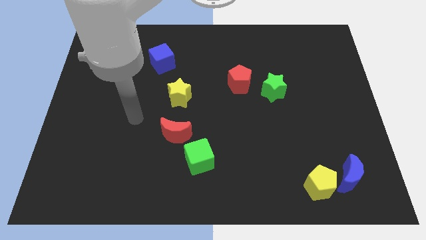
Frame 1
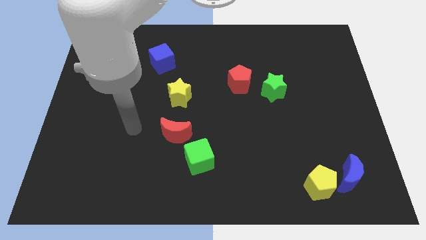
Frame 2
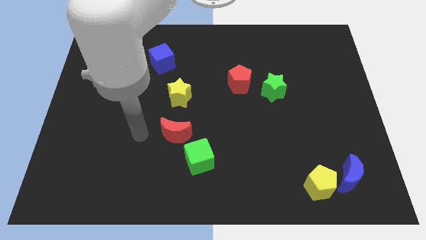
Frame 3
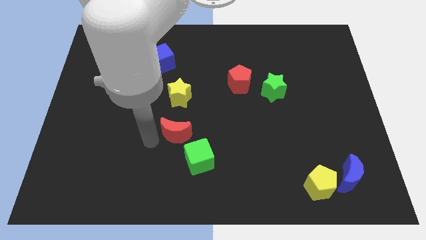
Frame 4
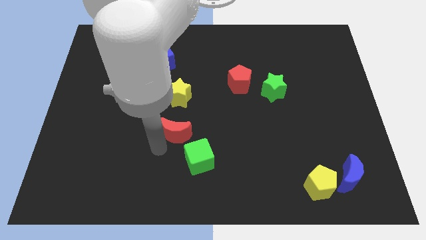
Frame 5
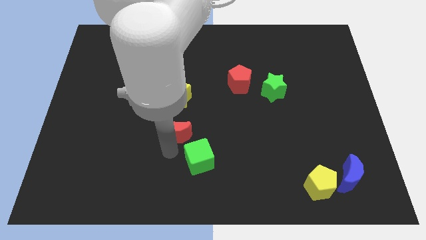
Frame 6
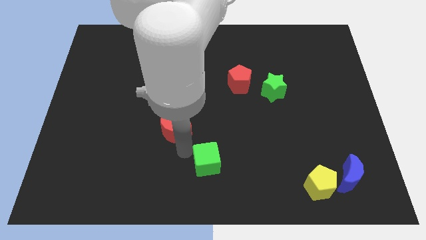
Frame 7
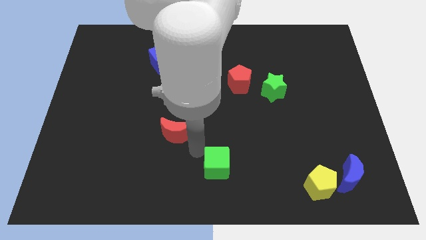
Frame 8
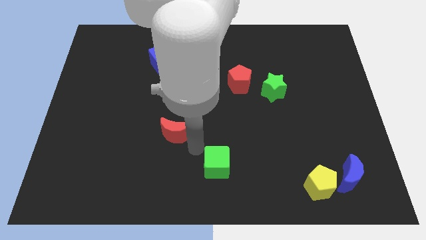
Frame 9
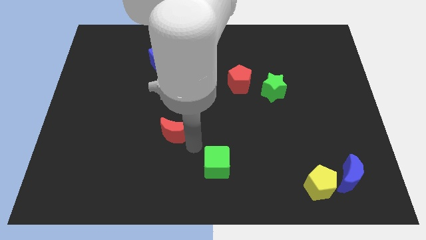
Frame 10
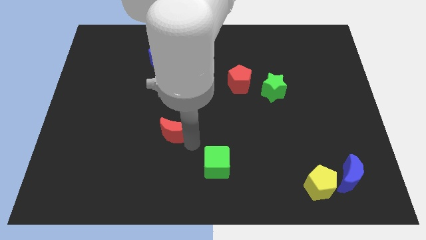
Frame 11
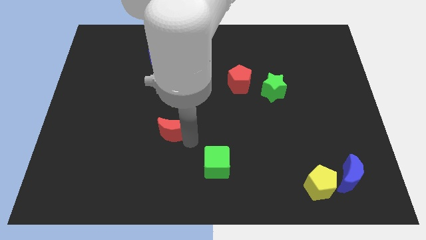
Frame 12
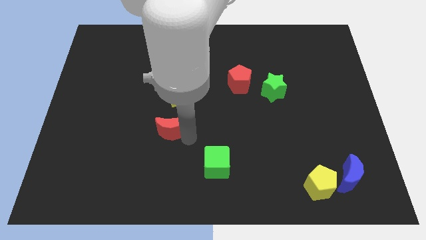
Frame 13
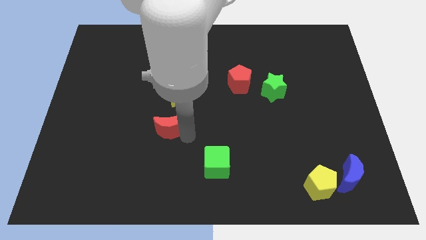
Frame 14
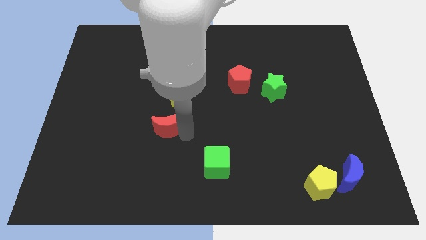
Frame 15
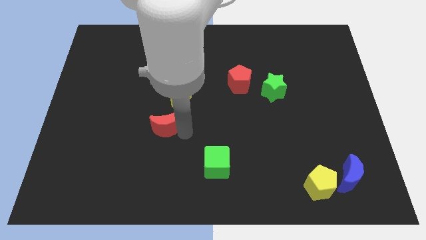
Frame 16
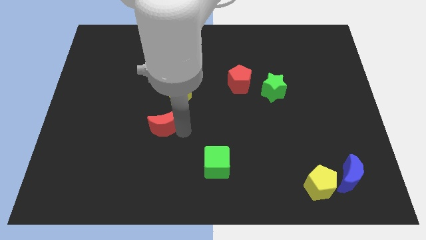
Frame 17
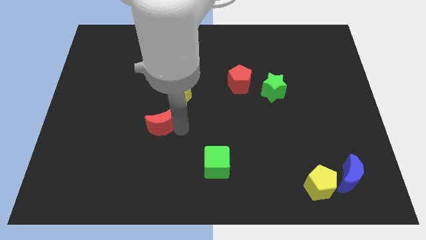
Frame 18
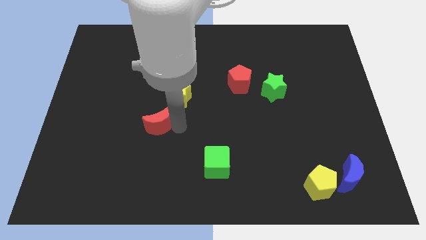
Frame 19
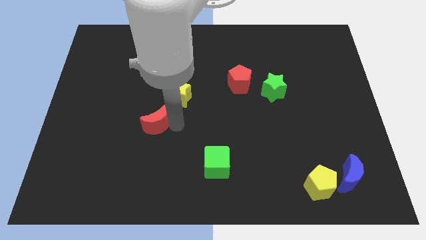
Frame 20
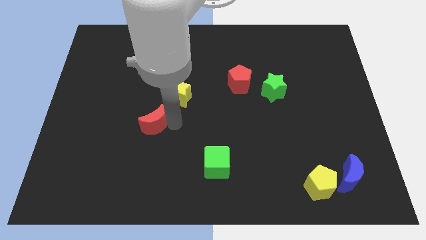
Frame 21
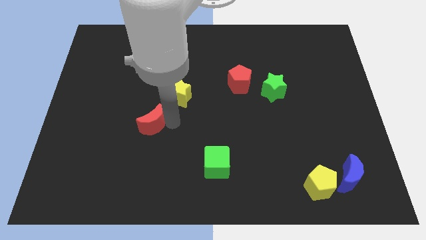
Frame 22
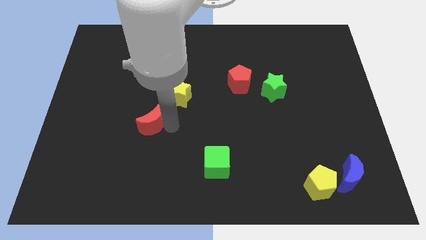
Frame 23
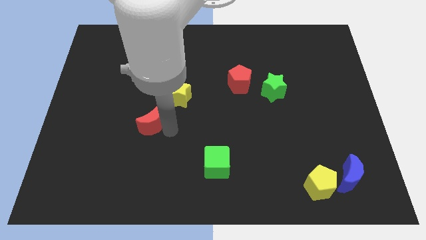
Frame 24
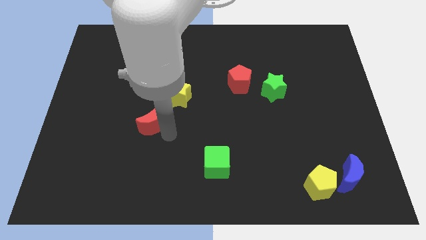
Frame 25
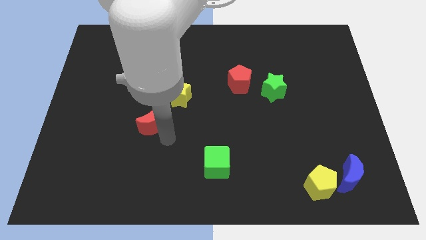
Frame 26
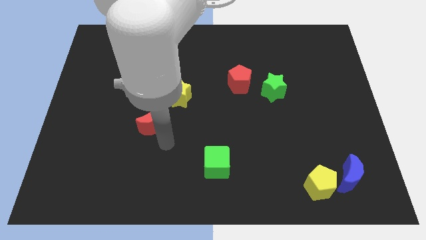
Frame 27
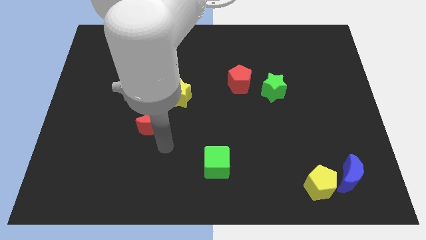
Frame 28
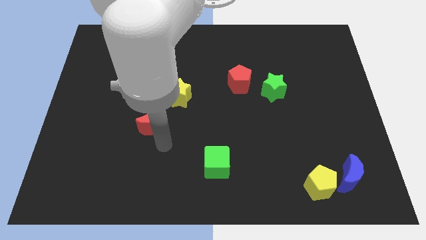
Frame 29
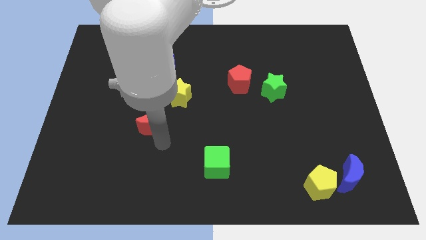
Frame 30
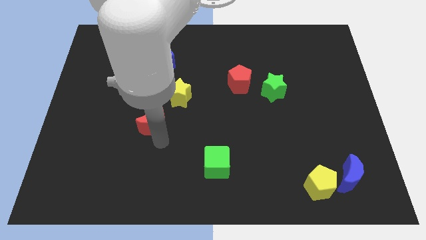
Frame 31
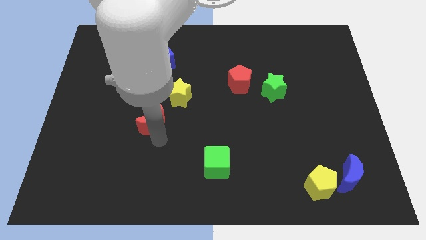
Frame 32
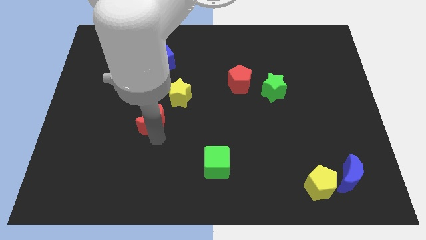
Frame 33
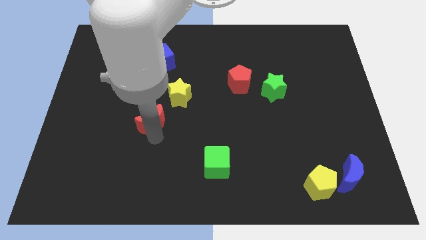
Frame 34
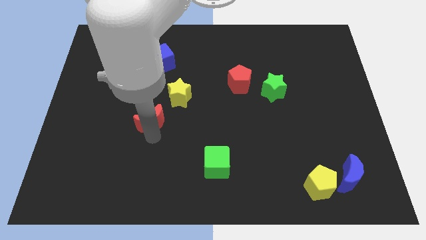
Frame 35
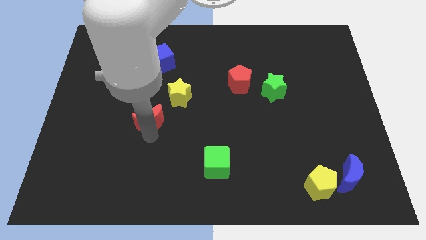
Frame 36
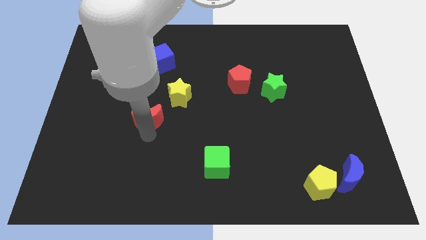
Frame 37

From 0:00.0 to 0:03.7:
move the red moon diagonally up and to the left slightly

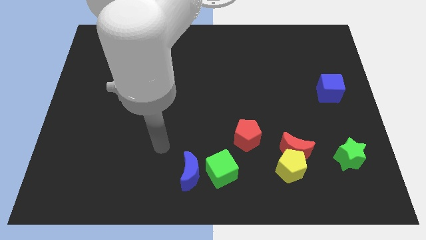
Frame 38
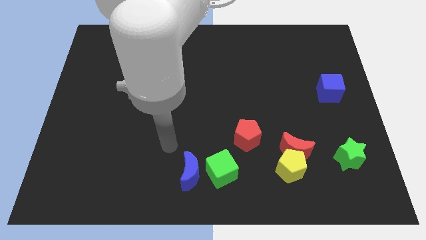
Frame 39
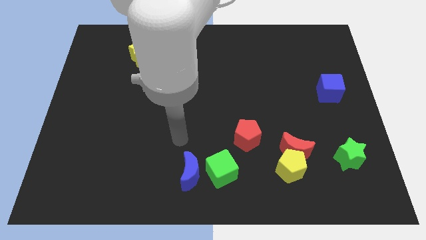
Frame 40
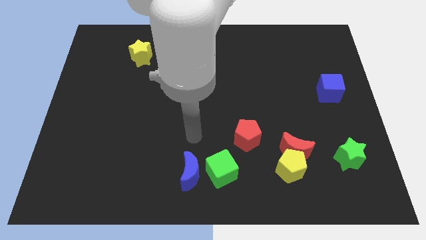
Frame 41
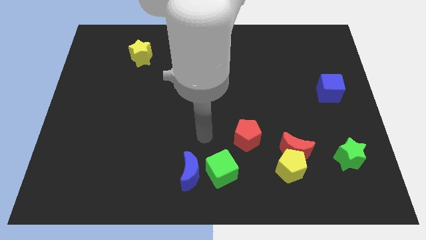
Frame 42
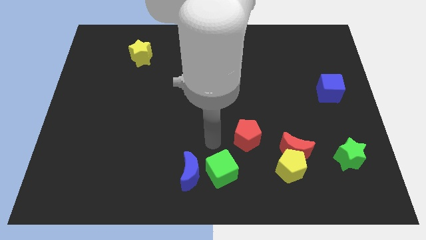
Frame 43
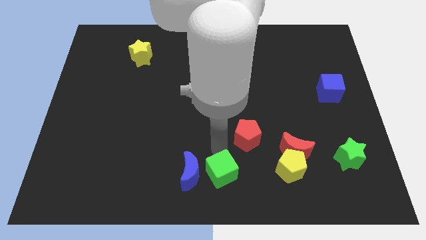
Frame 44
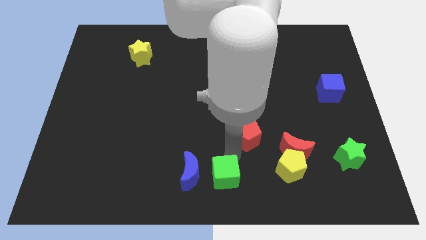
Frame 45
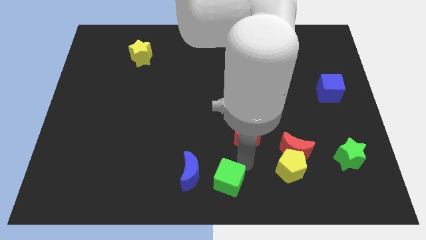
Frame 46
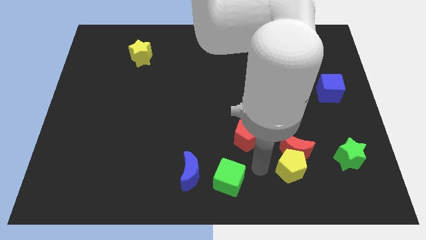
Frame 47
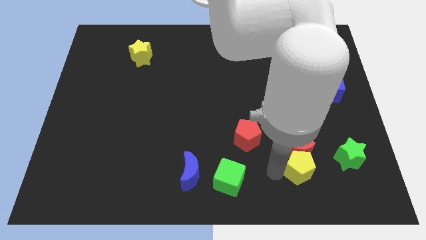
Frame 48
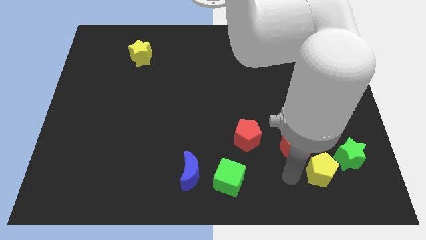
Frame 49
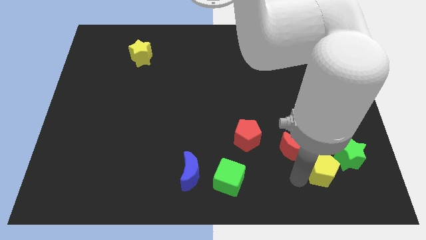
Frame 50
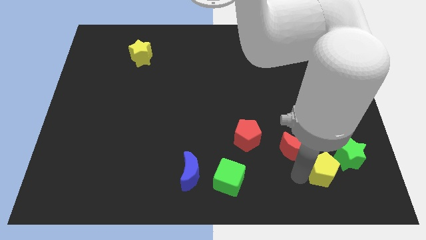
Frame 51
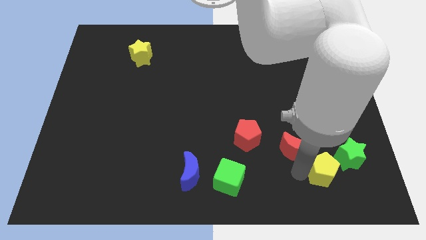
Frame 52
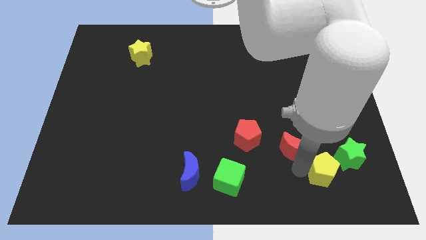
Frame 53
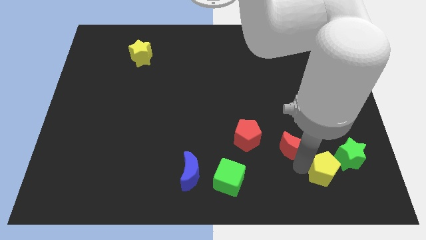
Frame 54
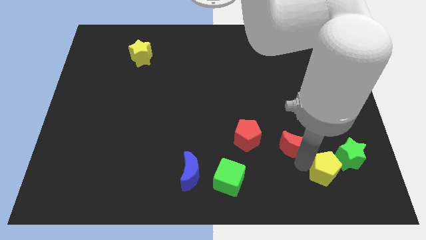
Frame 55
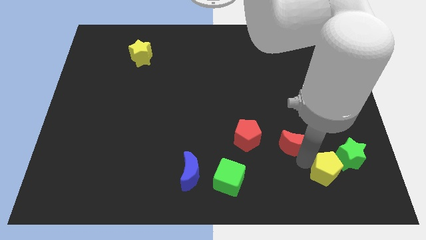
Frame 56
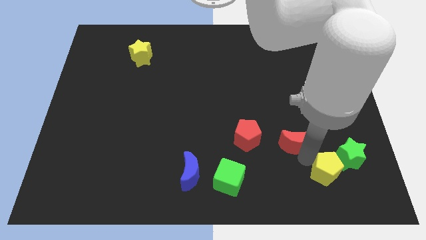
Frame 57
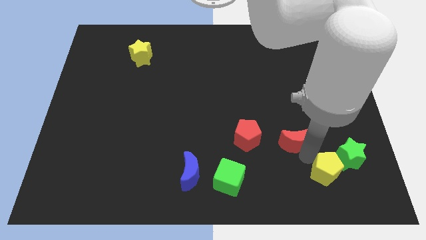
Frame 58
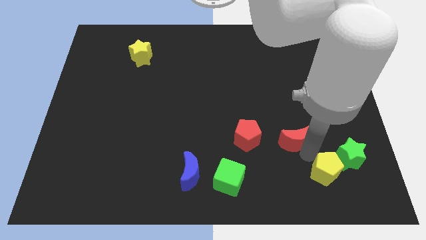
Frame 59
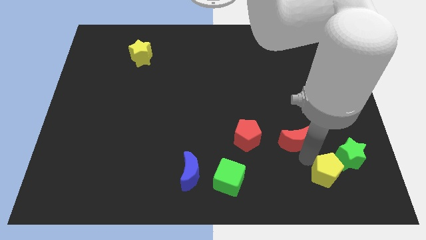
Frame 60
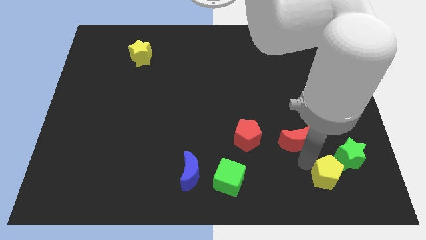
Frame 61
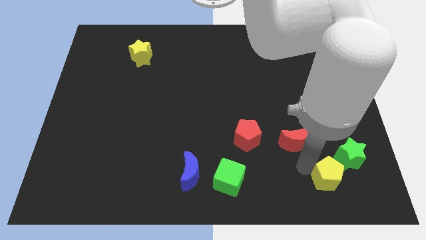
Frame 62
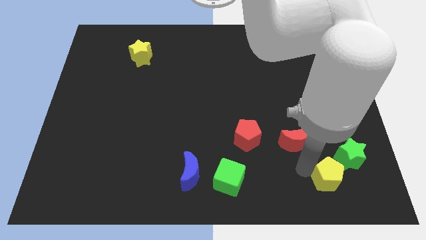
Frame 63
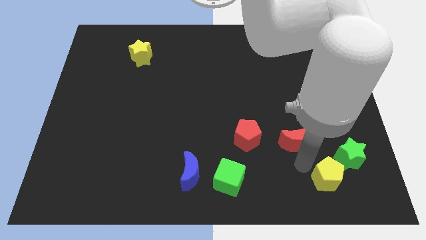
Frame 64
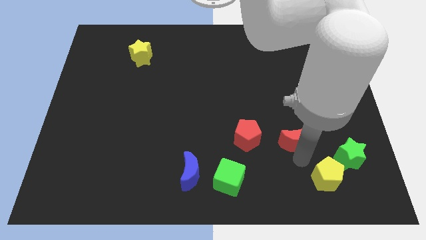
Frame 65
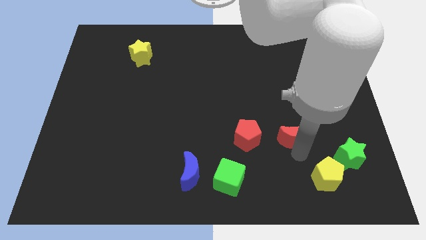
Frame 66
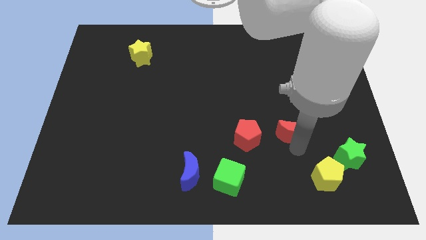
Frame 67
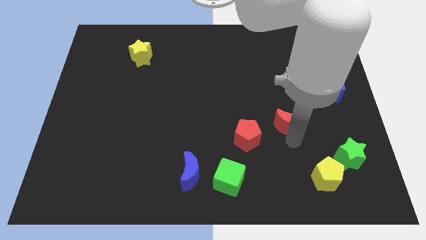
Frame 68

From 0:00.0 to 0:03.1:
move the red moon slightly up

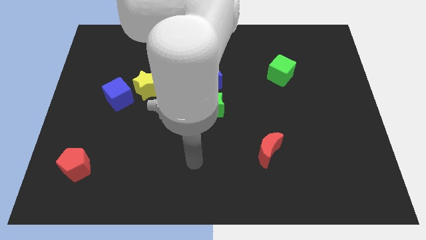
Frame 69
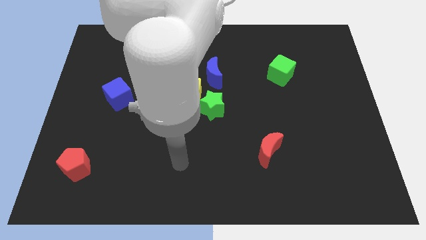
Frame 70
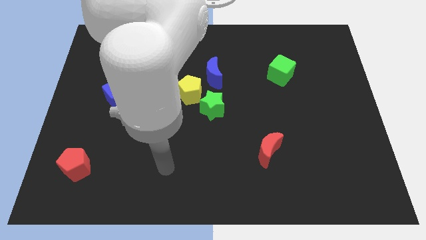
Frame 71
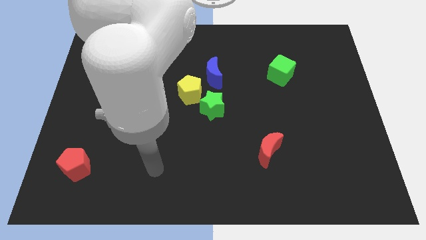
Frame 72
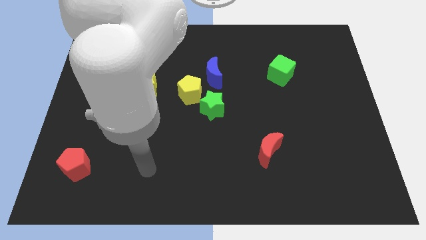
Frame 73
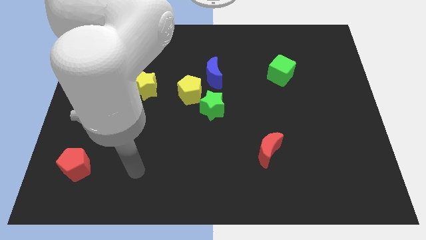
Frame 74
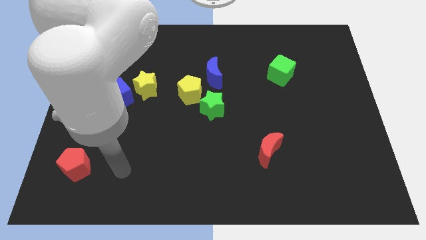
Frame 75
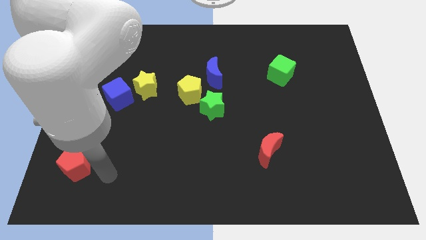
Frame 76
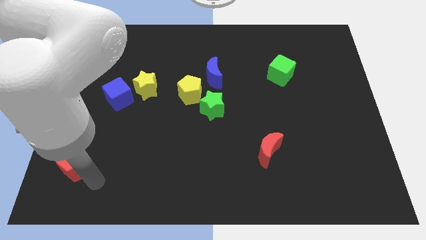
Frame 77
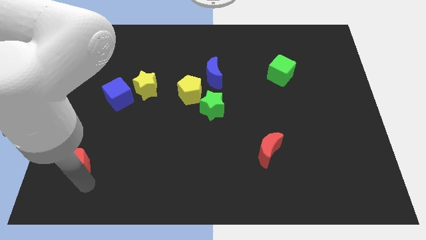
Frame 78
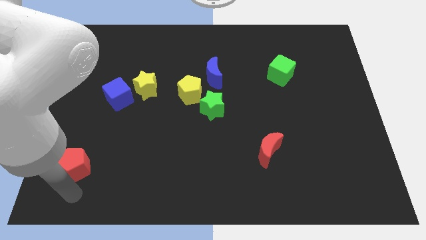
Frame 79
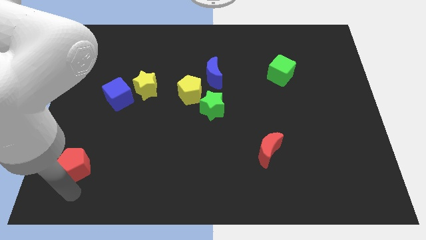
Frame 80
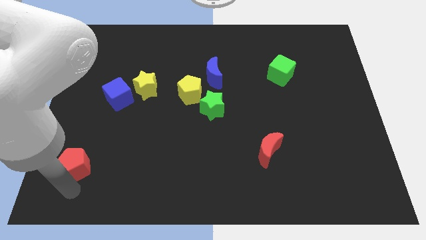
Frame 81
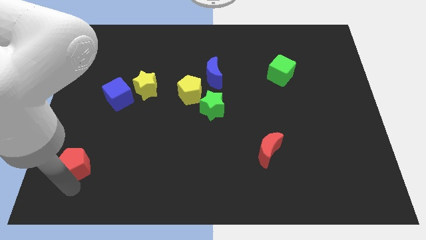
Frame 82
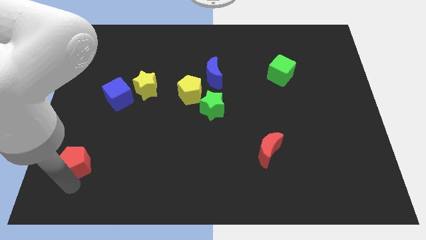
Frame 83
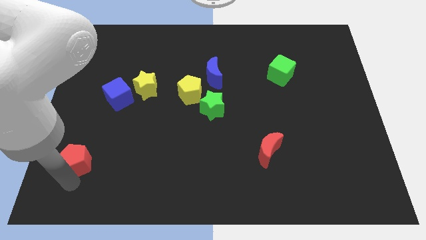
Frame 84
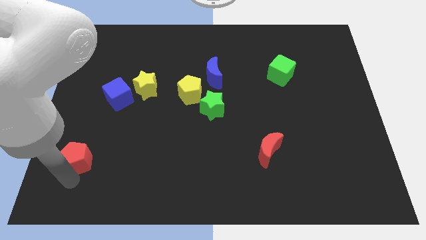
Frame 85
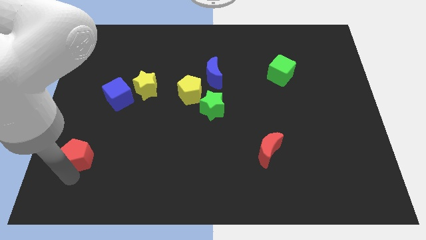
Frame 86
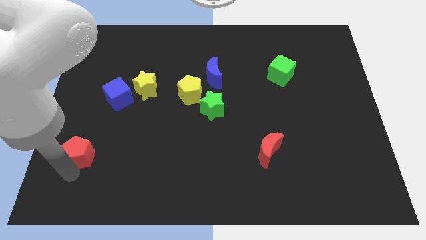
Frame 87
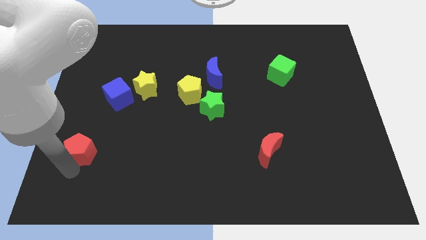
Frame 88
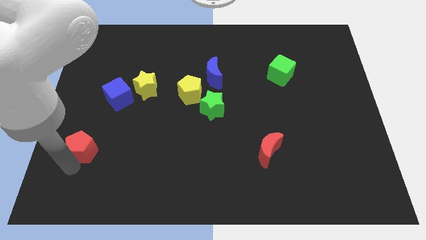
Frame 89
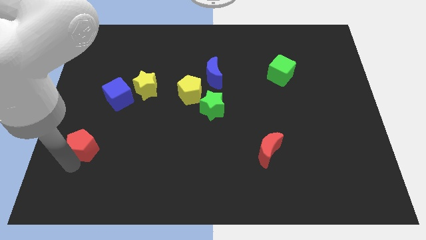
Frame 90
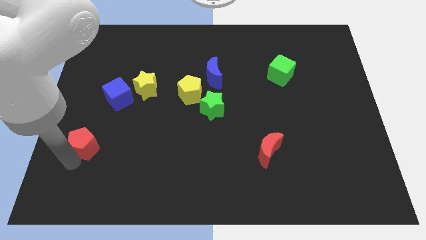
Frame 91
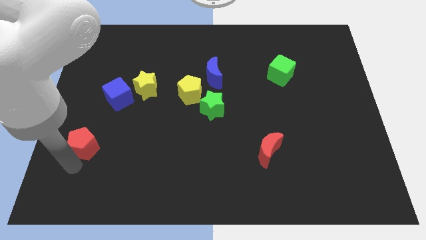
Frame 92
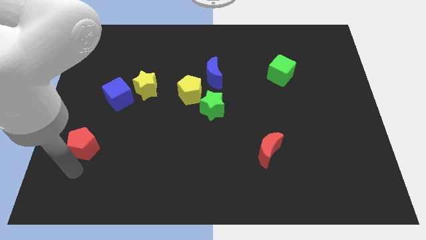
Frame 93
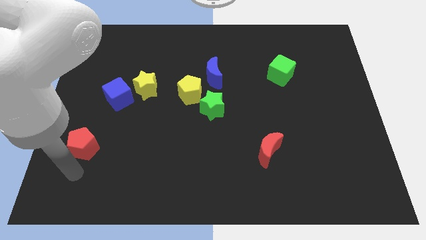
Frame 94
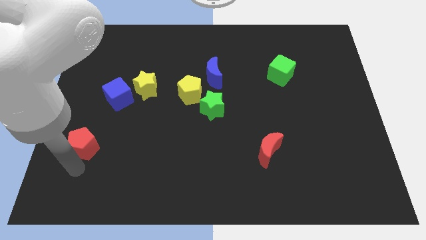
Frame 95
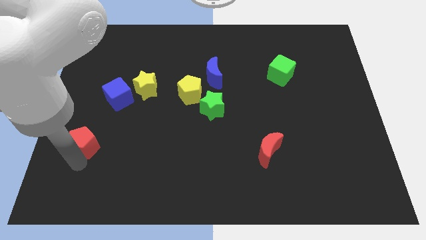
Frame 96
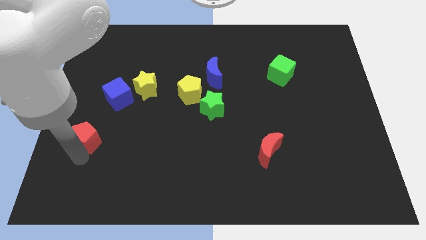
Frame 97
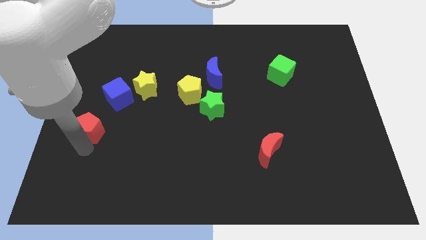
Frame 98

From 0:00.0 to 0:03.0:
slightly slide the red pentagon upwards
